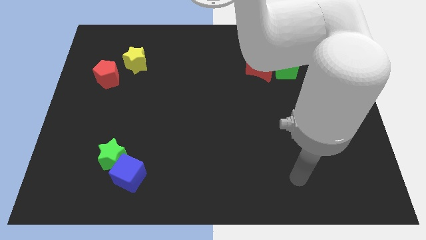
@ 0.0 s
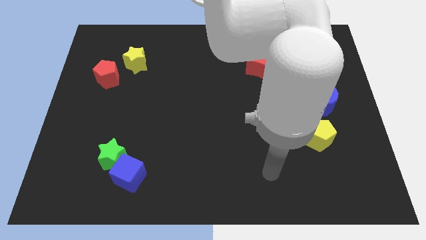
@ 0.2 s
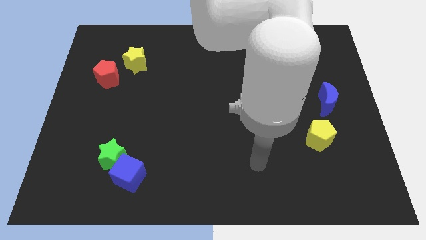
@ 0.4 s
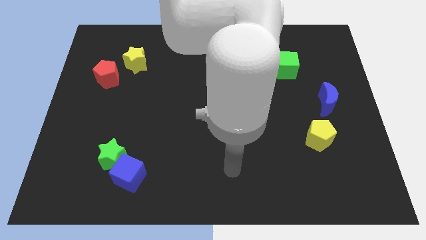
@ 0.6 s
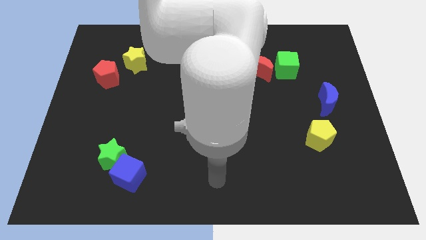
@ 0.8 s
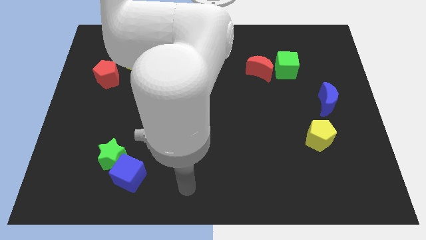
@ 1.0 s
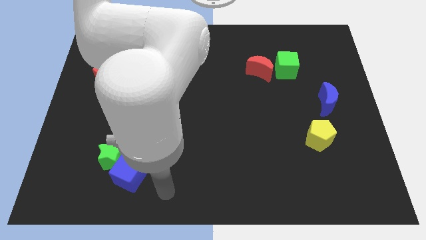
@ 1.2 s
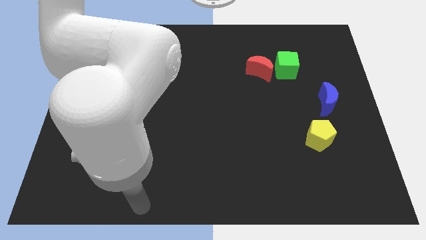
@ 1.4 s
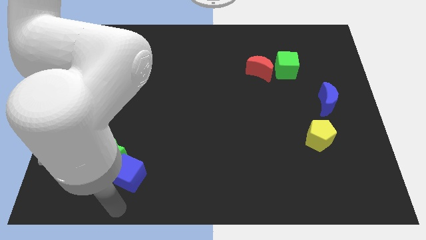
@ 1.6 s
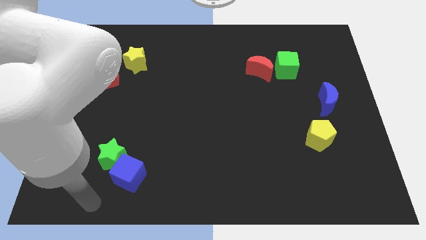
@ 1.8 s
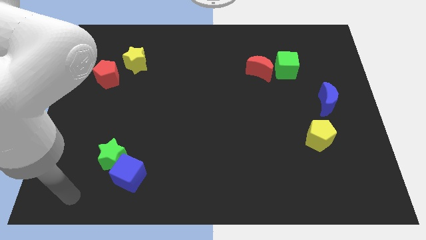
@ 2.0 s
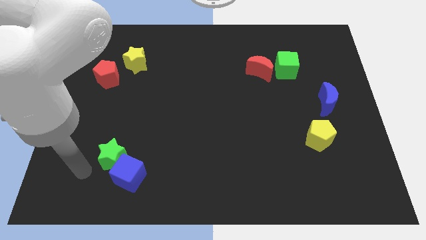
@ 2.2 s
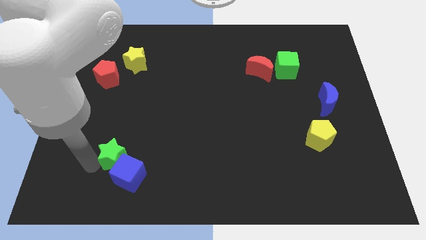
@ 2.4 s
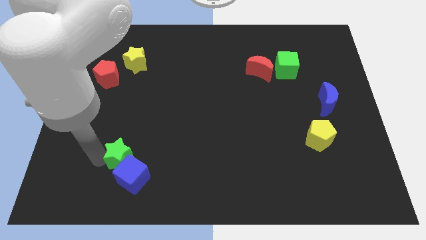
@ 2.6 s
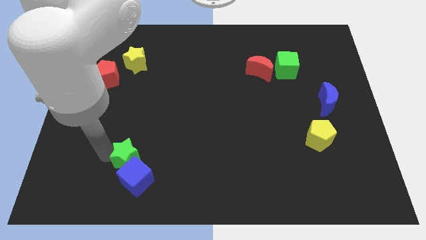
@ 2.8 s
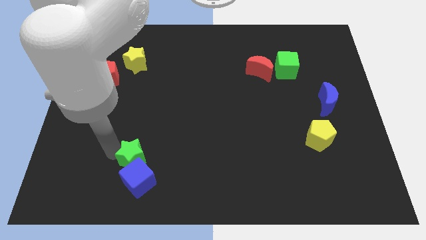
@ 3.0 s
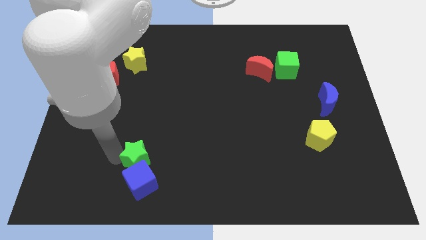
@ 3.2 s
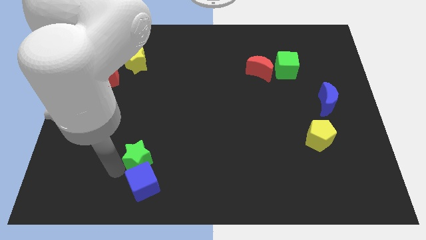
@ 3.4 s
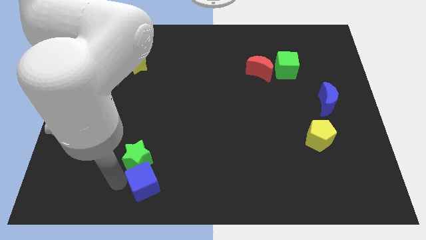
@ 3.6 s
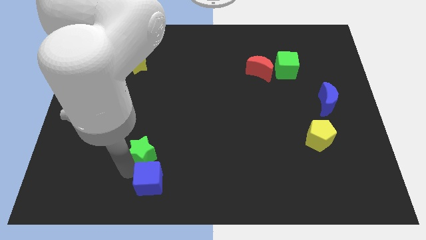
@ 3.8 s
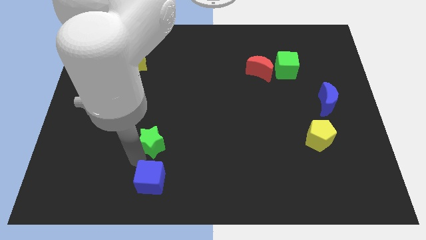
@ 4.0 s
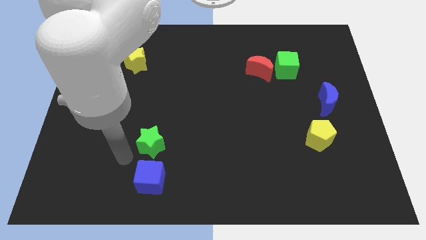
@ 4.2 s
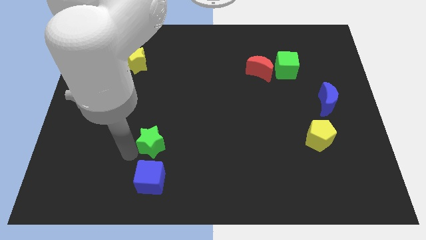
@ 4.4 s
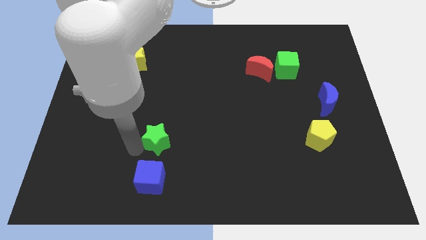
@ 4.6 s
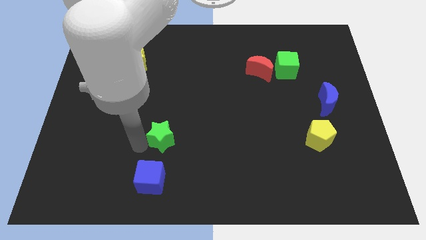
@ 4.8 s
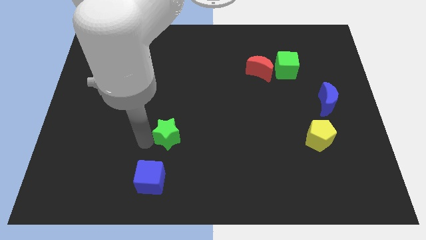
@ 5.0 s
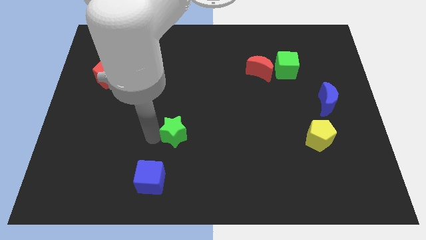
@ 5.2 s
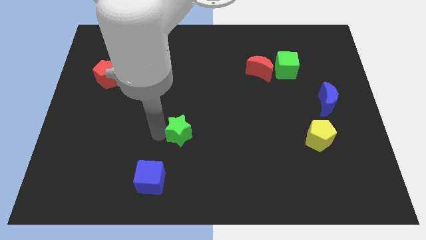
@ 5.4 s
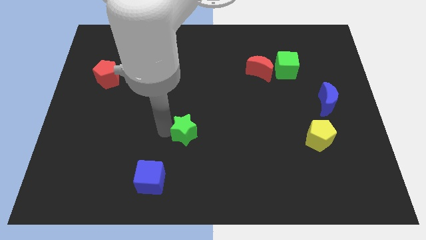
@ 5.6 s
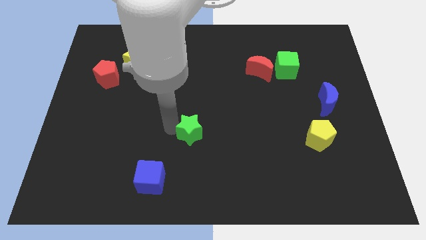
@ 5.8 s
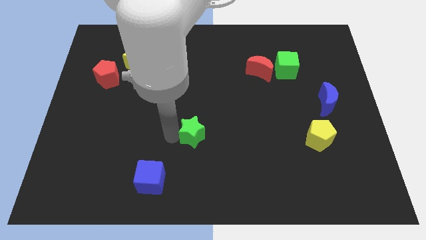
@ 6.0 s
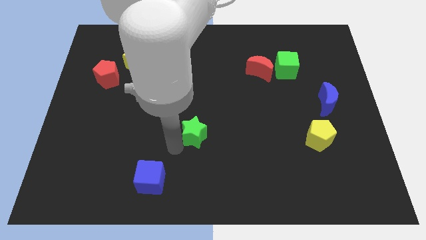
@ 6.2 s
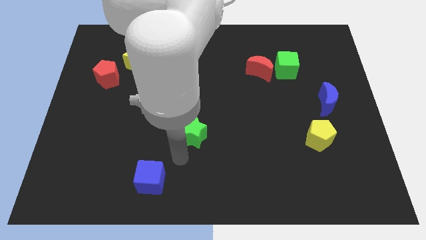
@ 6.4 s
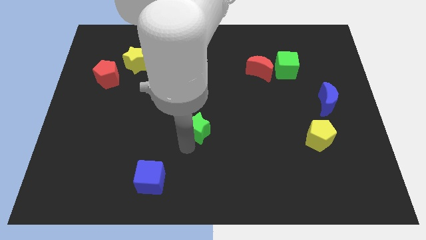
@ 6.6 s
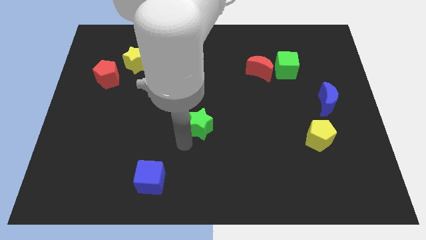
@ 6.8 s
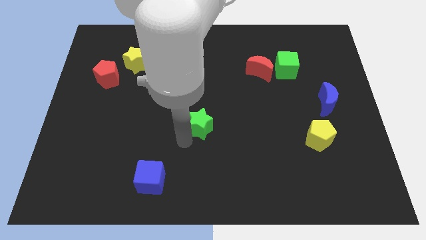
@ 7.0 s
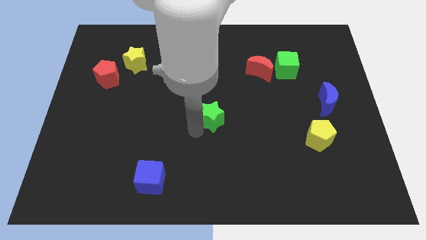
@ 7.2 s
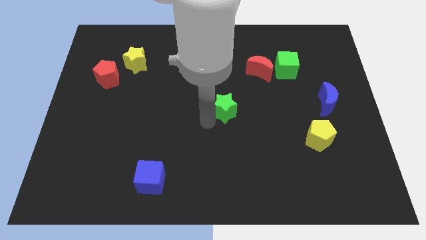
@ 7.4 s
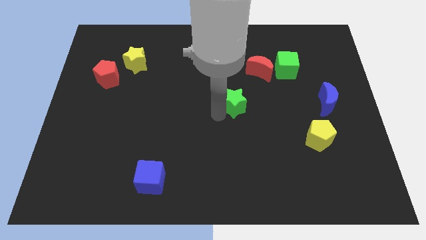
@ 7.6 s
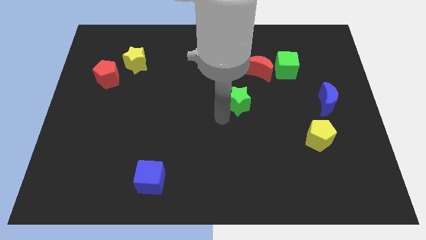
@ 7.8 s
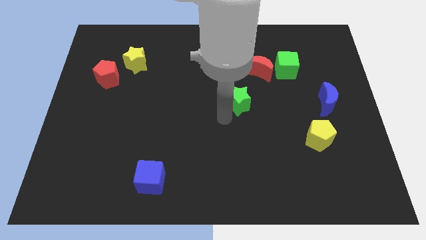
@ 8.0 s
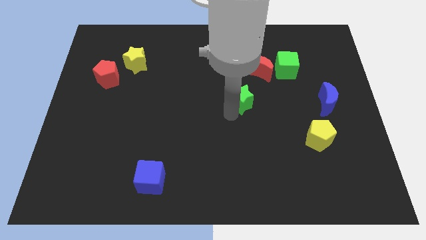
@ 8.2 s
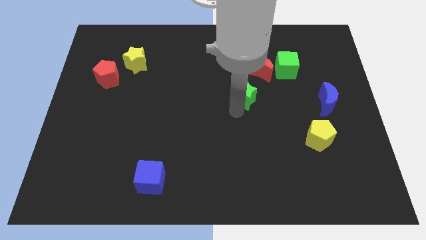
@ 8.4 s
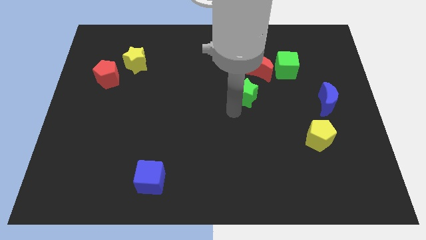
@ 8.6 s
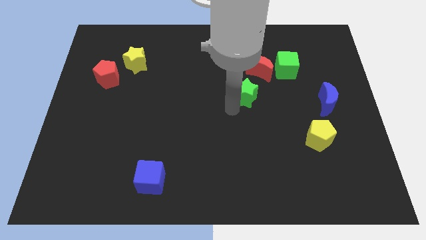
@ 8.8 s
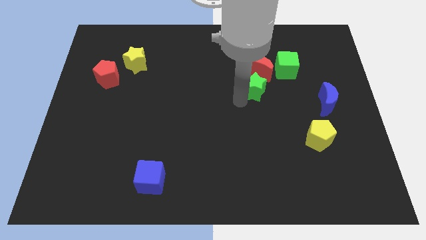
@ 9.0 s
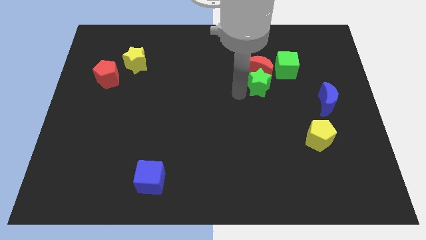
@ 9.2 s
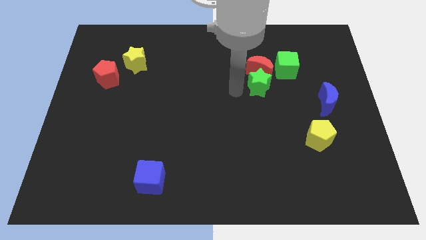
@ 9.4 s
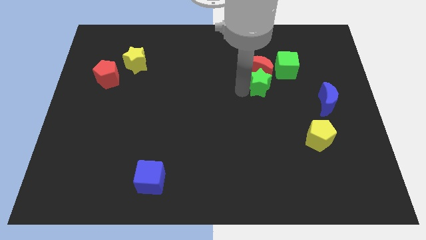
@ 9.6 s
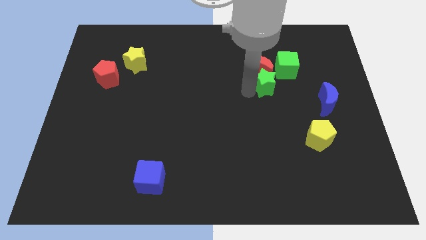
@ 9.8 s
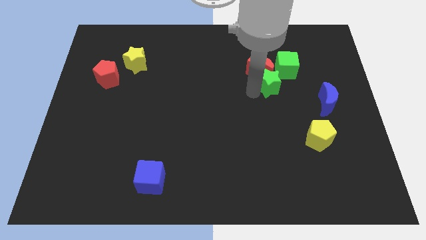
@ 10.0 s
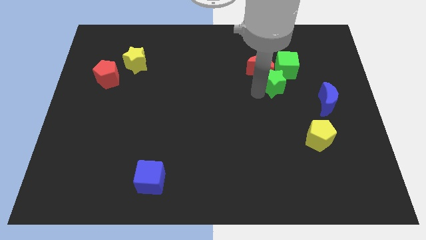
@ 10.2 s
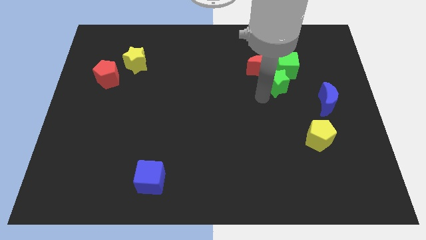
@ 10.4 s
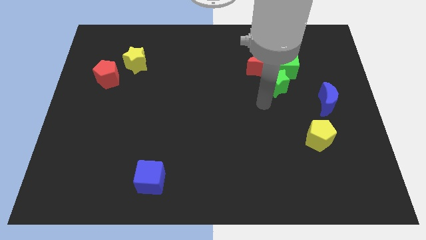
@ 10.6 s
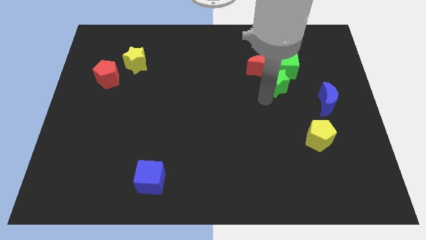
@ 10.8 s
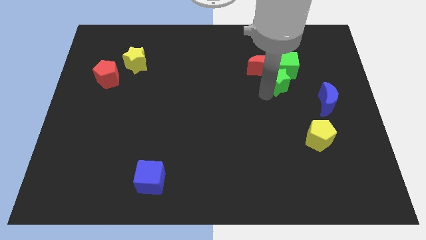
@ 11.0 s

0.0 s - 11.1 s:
put the green star towards the green cube

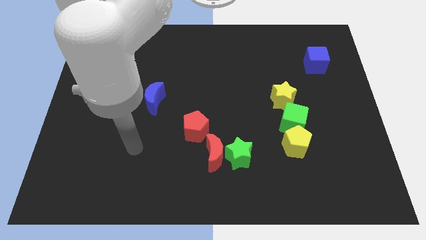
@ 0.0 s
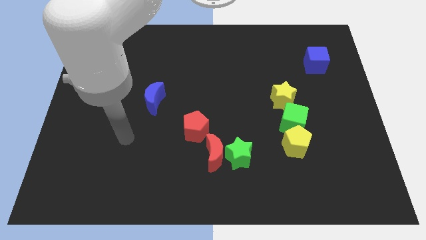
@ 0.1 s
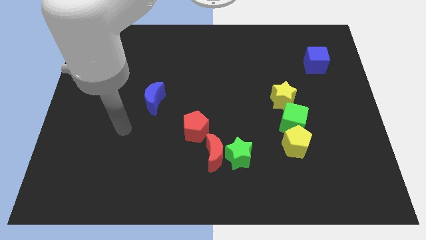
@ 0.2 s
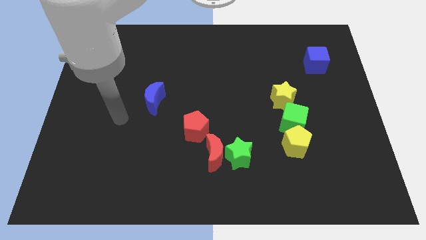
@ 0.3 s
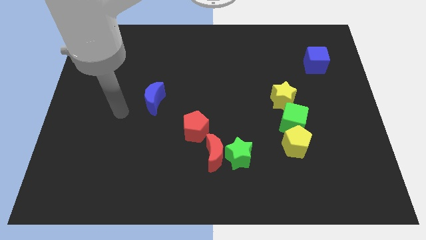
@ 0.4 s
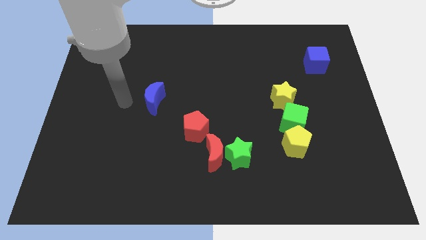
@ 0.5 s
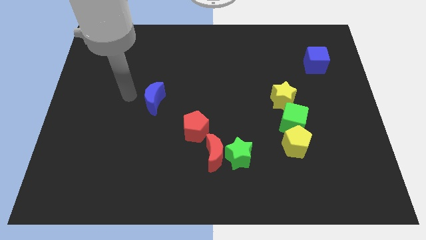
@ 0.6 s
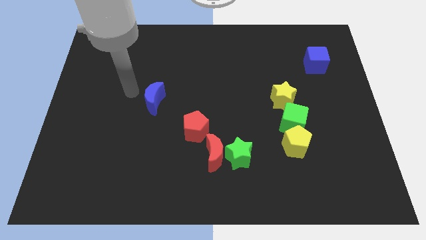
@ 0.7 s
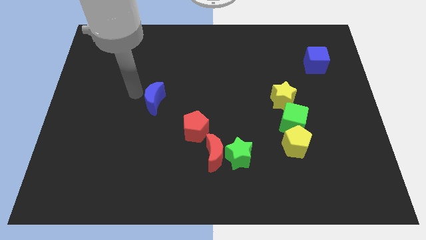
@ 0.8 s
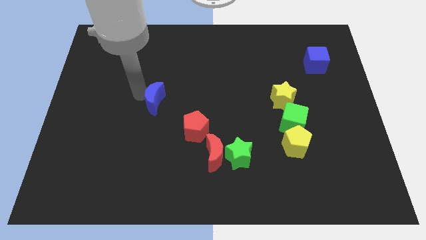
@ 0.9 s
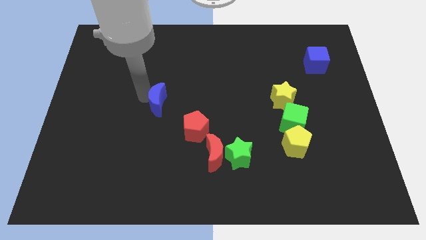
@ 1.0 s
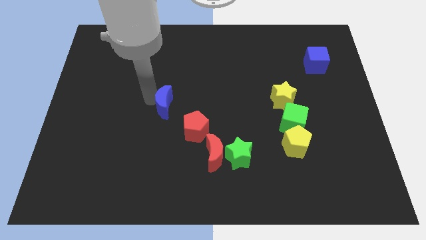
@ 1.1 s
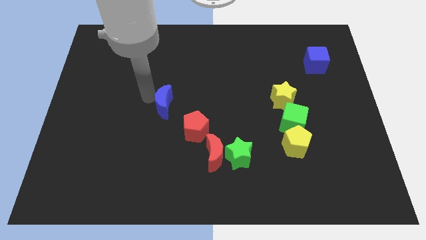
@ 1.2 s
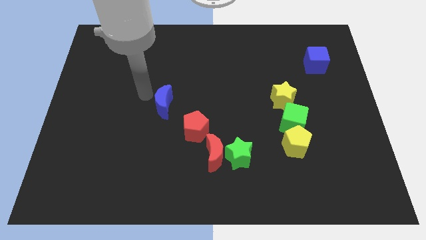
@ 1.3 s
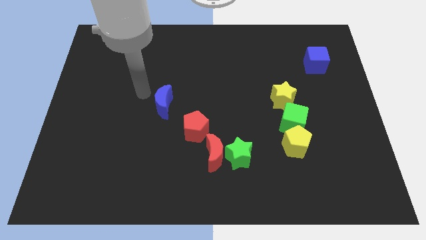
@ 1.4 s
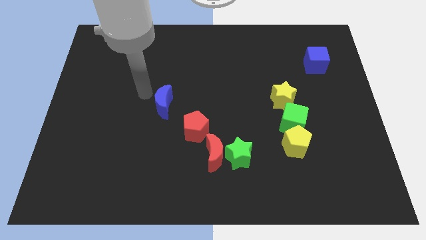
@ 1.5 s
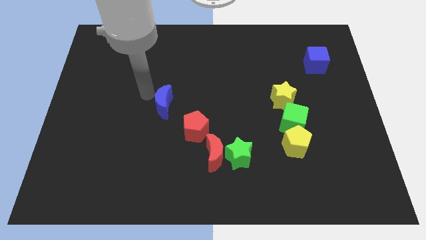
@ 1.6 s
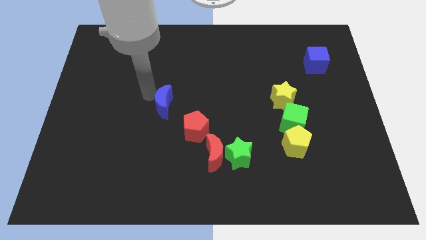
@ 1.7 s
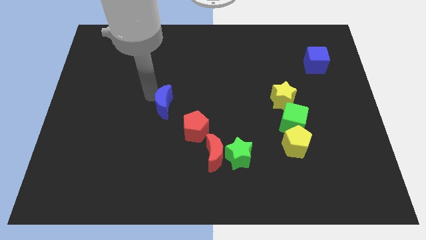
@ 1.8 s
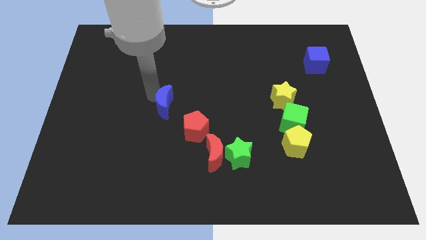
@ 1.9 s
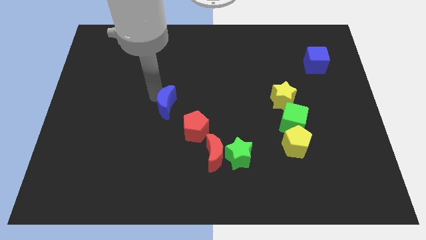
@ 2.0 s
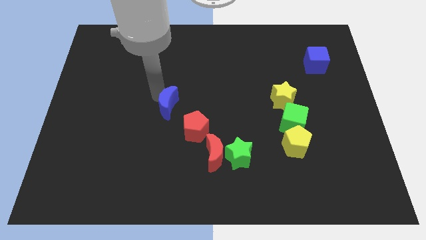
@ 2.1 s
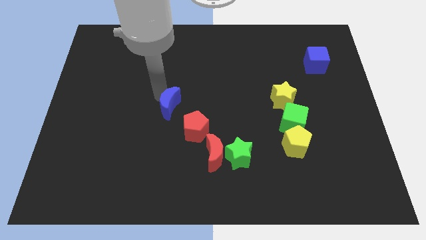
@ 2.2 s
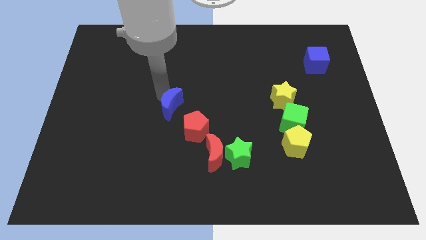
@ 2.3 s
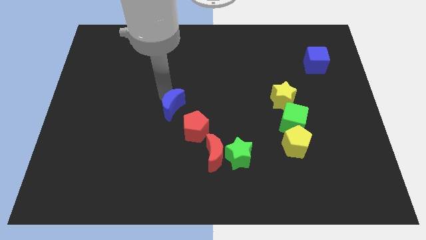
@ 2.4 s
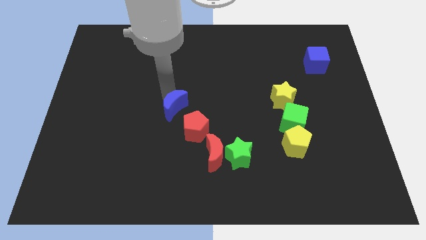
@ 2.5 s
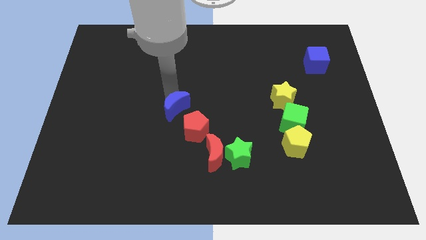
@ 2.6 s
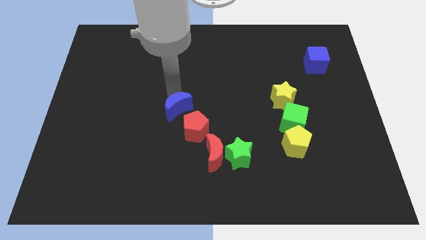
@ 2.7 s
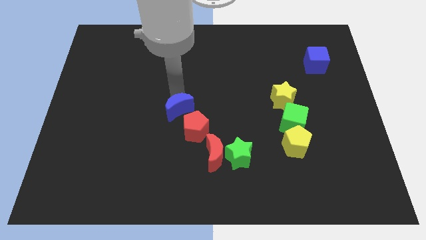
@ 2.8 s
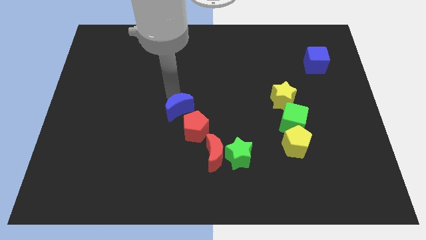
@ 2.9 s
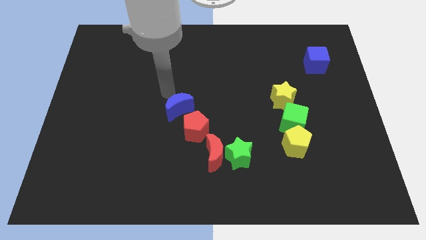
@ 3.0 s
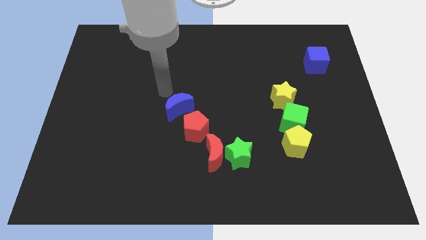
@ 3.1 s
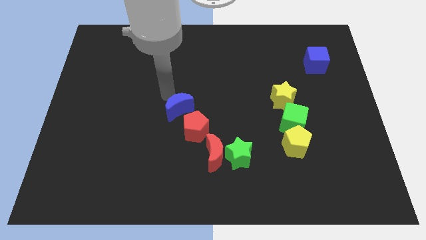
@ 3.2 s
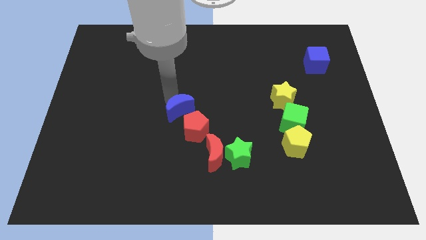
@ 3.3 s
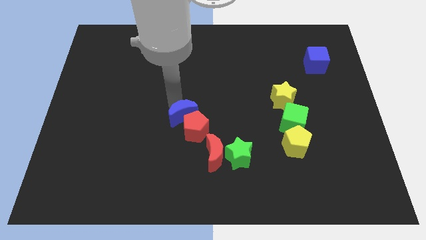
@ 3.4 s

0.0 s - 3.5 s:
push the blue moon towards the red pentagon
